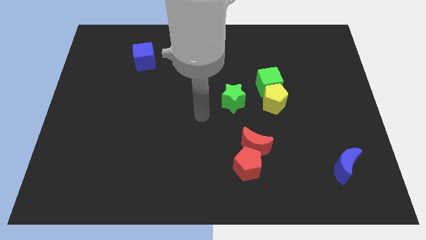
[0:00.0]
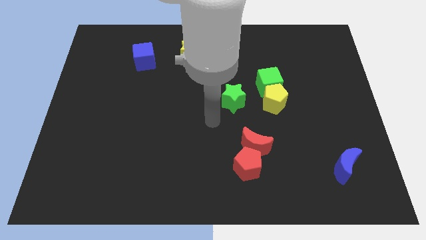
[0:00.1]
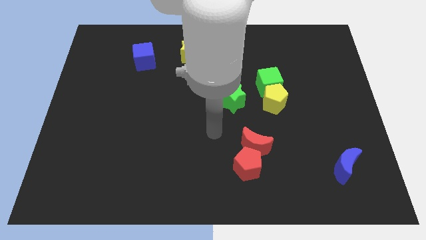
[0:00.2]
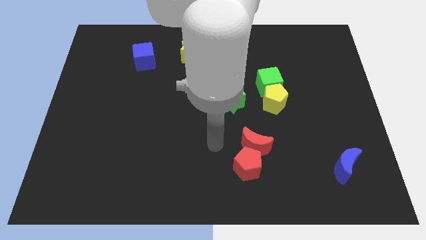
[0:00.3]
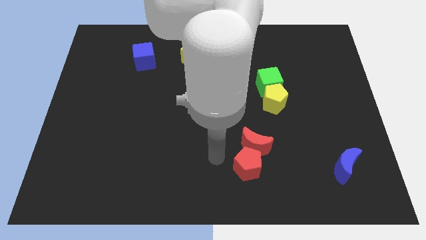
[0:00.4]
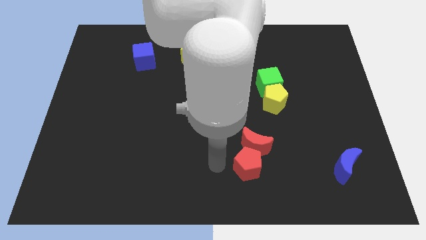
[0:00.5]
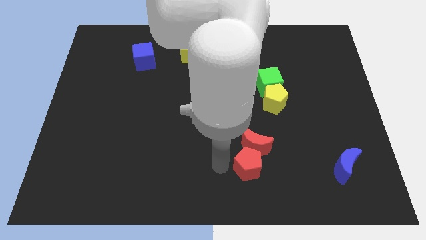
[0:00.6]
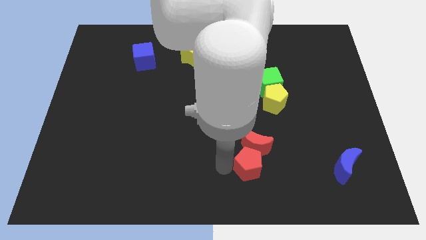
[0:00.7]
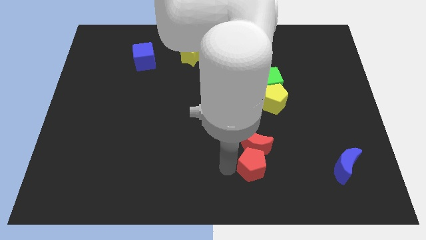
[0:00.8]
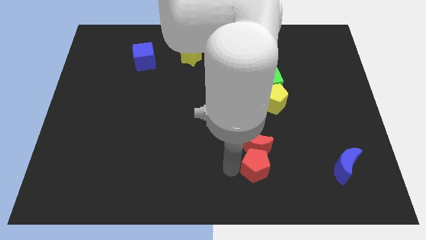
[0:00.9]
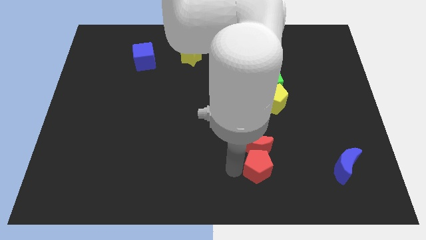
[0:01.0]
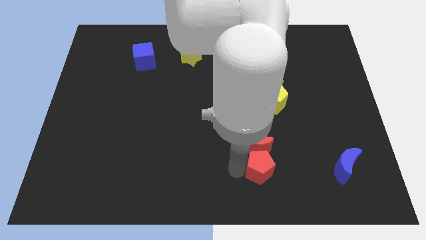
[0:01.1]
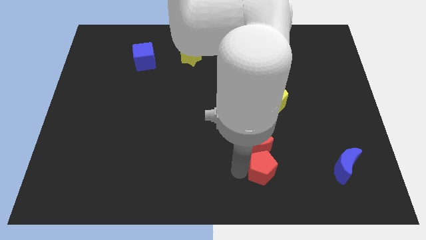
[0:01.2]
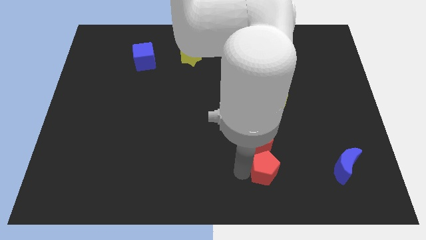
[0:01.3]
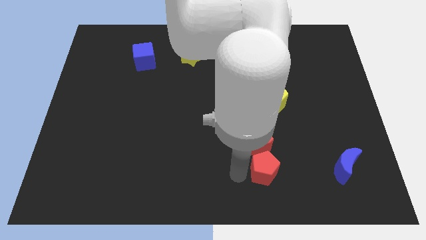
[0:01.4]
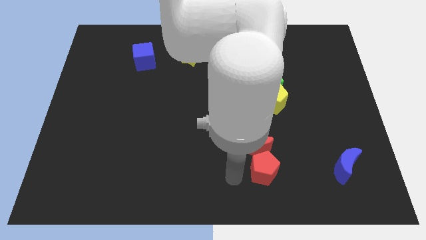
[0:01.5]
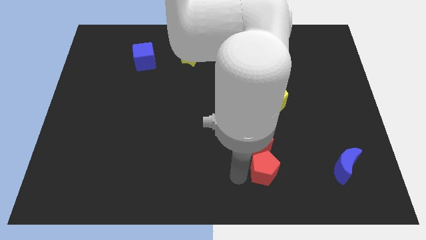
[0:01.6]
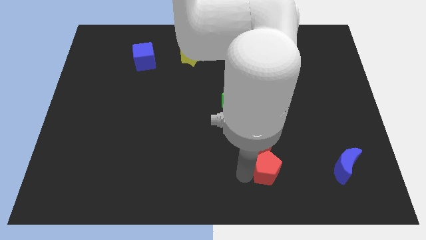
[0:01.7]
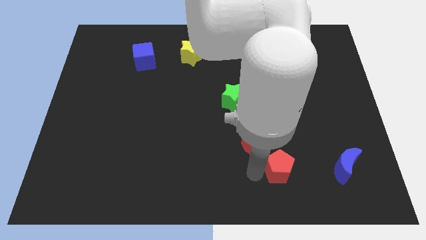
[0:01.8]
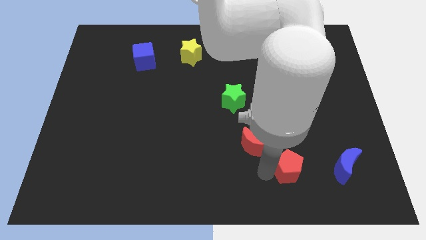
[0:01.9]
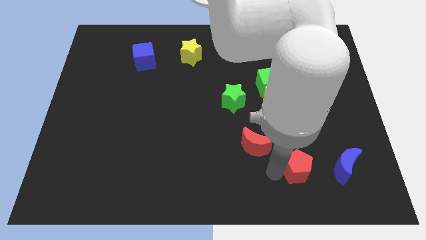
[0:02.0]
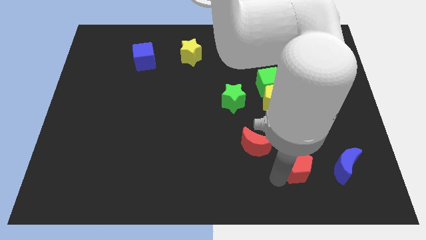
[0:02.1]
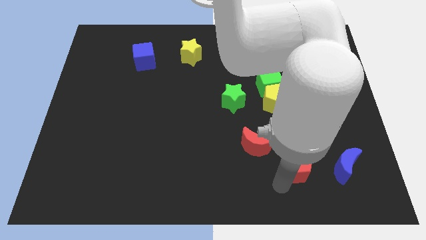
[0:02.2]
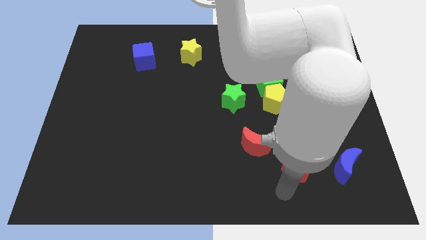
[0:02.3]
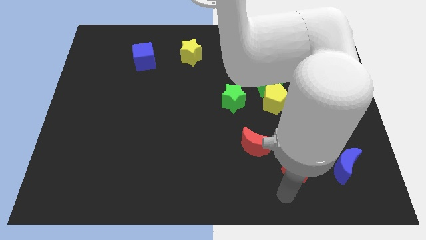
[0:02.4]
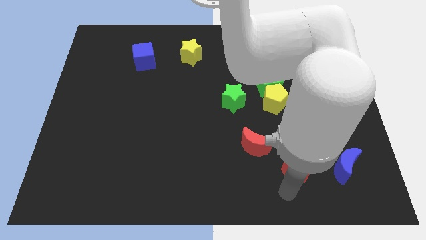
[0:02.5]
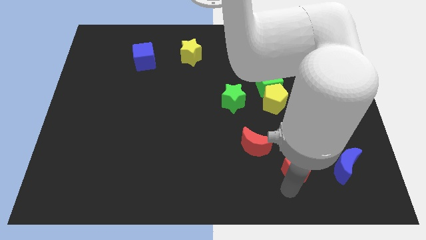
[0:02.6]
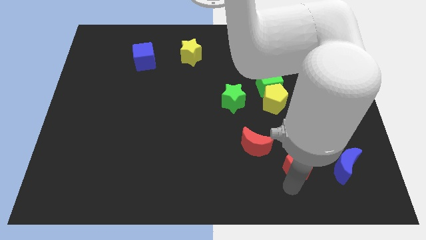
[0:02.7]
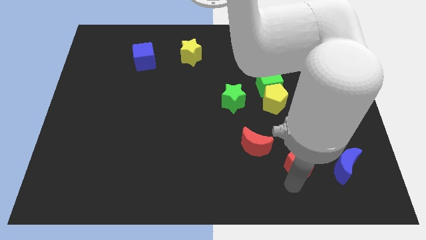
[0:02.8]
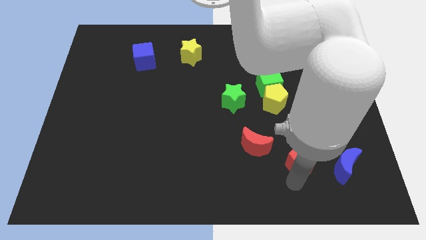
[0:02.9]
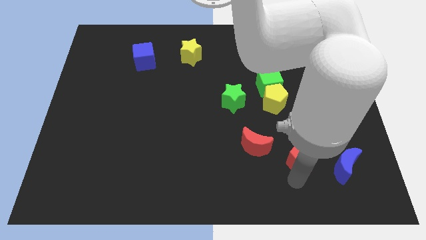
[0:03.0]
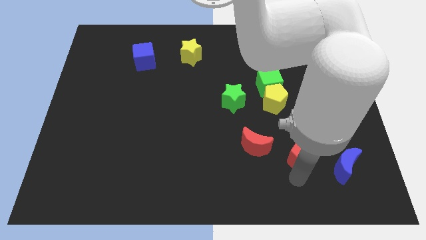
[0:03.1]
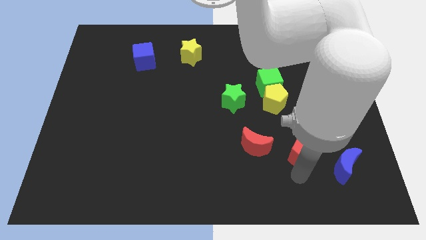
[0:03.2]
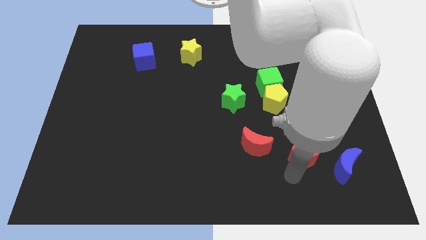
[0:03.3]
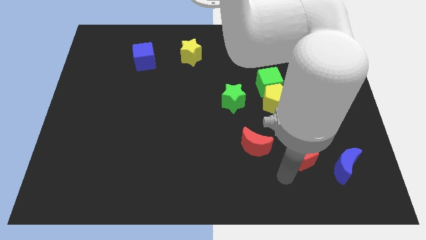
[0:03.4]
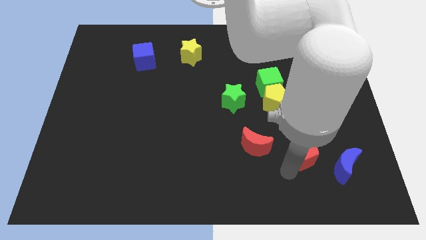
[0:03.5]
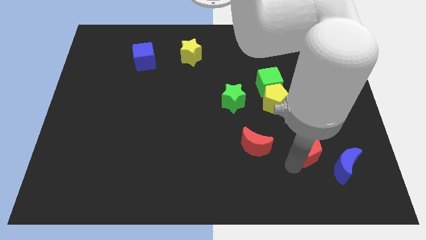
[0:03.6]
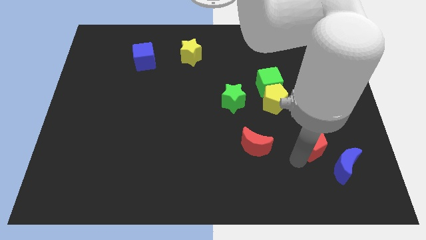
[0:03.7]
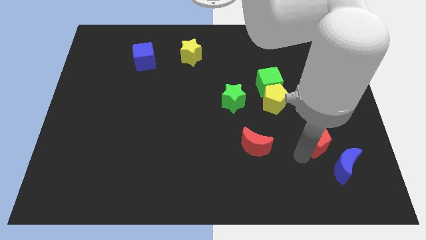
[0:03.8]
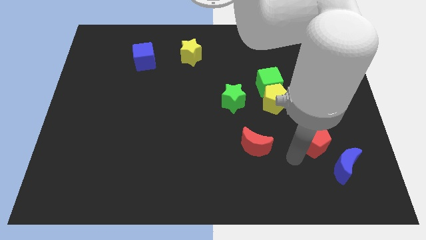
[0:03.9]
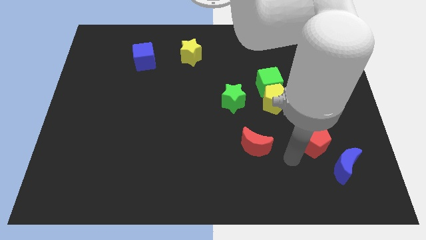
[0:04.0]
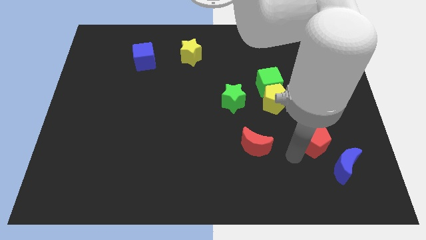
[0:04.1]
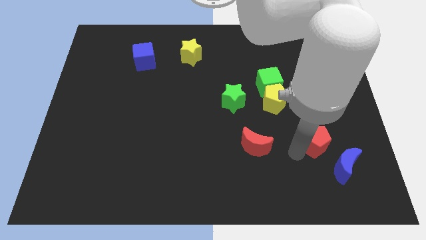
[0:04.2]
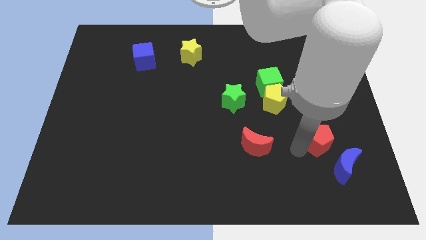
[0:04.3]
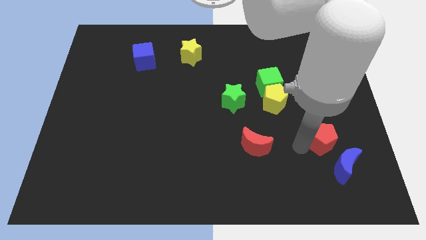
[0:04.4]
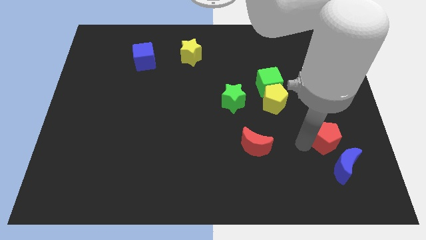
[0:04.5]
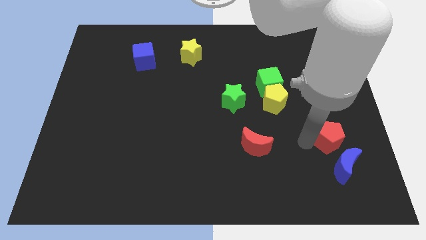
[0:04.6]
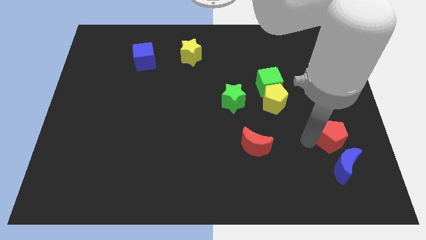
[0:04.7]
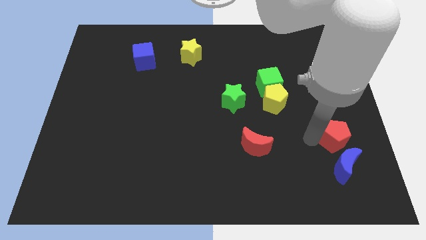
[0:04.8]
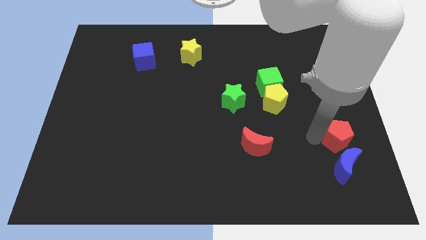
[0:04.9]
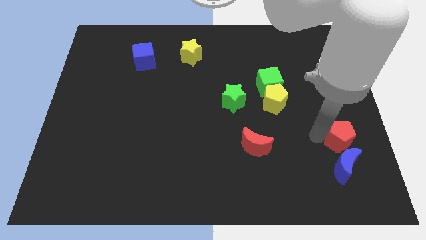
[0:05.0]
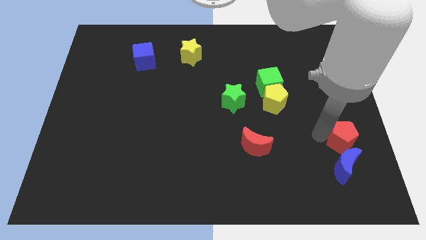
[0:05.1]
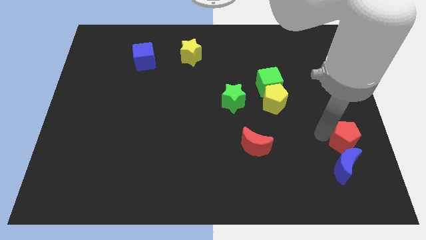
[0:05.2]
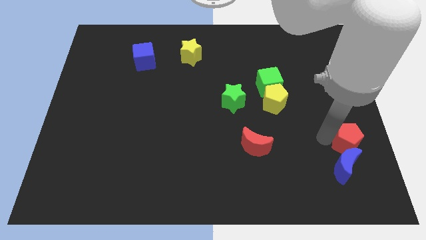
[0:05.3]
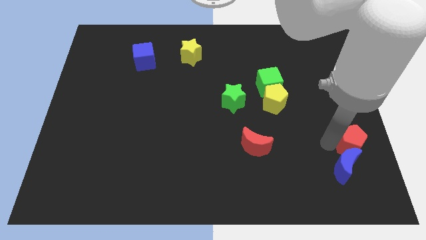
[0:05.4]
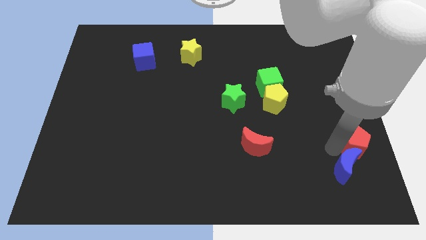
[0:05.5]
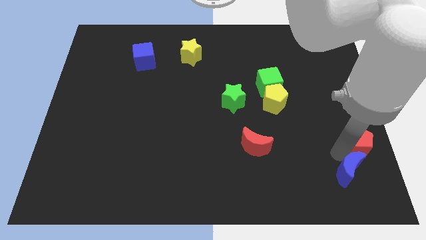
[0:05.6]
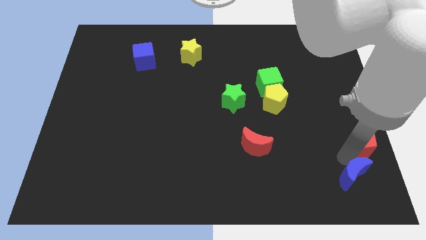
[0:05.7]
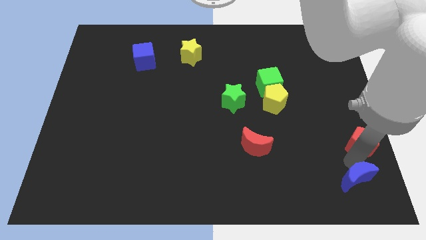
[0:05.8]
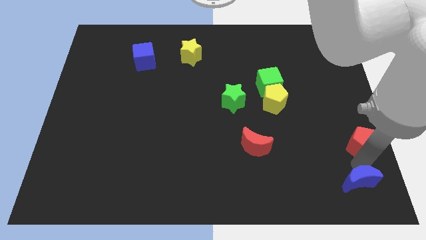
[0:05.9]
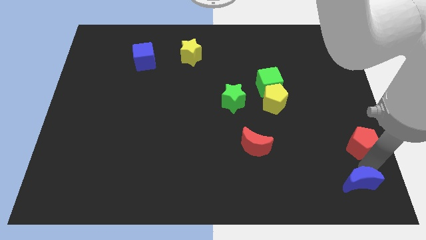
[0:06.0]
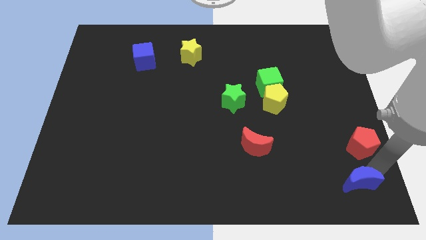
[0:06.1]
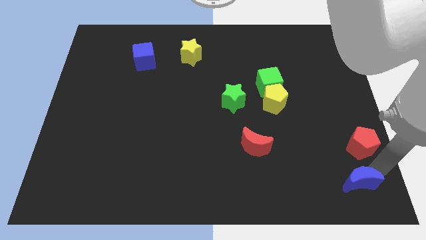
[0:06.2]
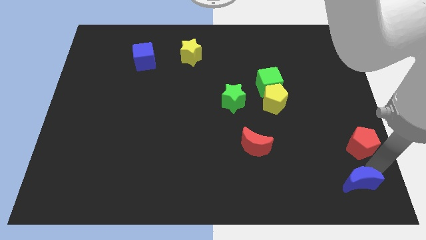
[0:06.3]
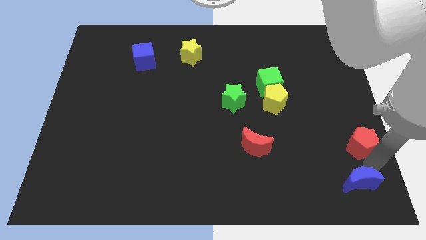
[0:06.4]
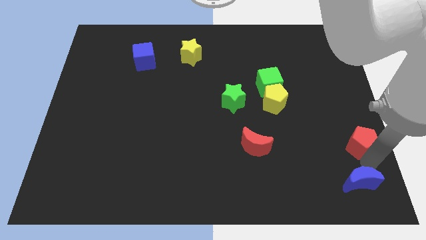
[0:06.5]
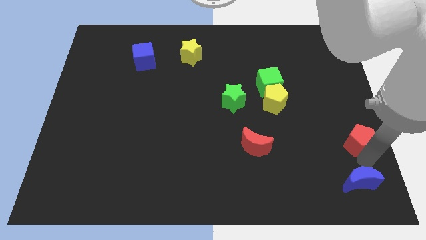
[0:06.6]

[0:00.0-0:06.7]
push the red pentagon to the right side
